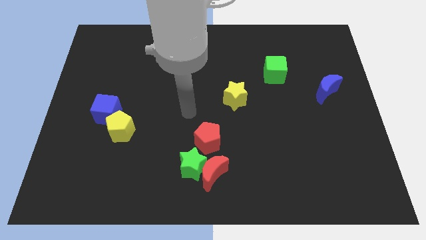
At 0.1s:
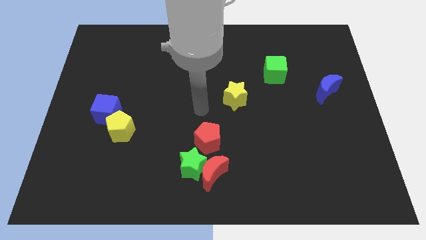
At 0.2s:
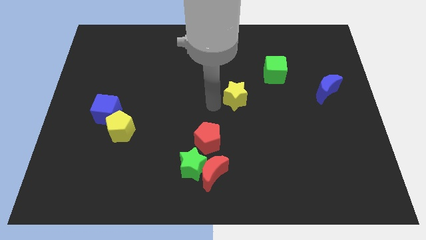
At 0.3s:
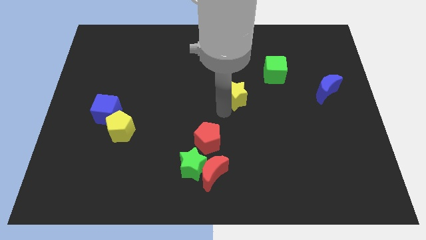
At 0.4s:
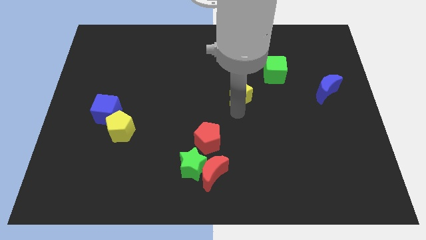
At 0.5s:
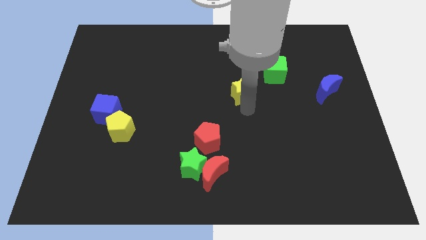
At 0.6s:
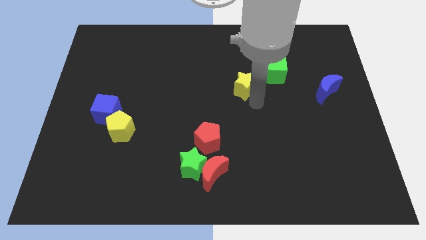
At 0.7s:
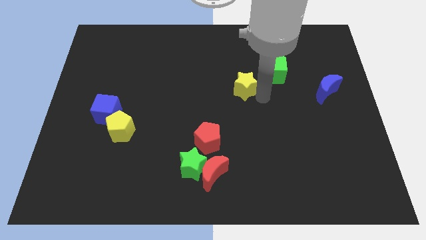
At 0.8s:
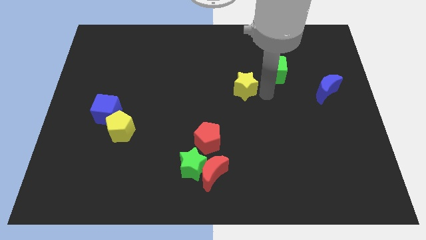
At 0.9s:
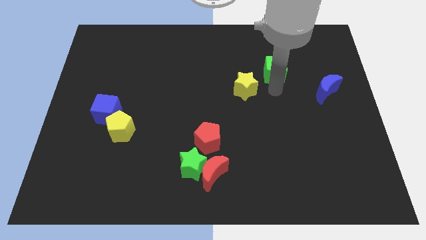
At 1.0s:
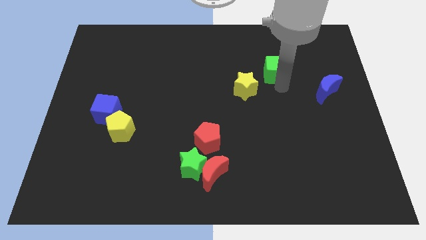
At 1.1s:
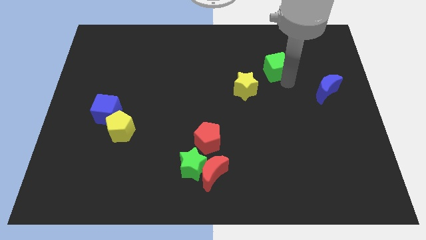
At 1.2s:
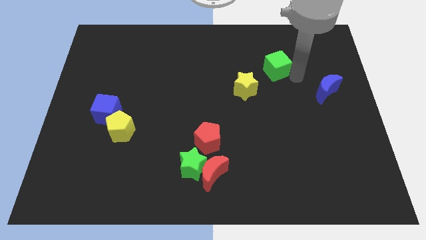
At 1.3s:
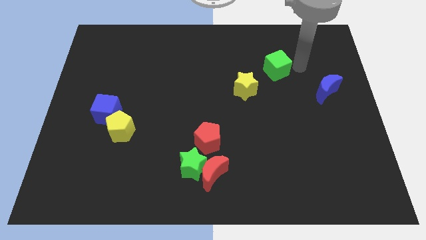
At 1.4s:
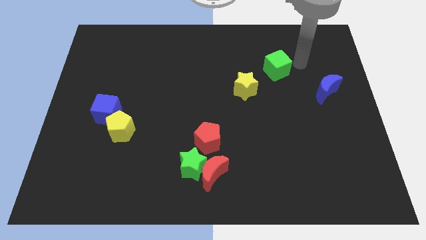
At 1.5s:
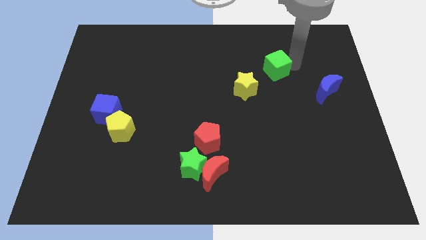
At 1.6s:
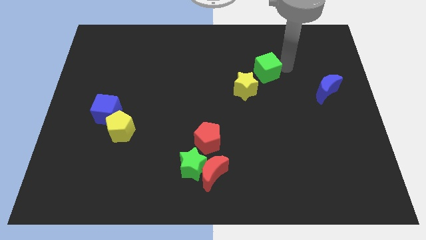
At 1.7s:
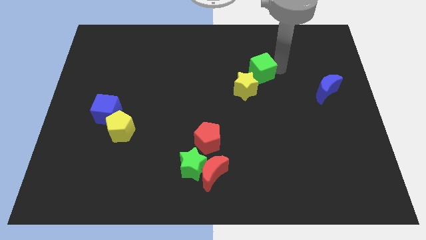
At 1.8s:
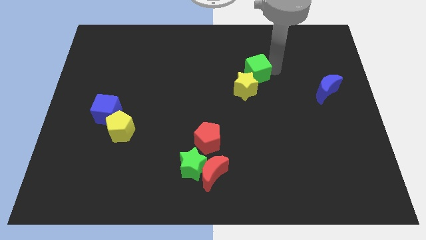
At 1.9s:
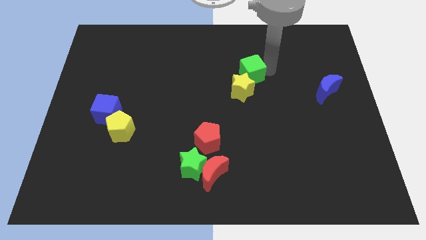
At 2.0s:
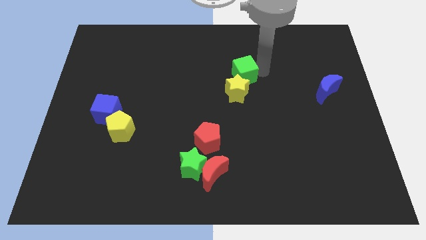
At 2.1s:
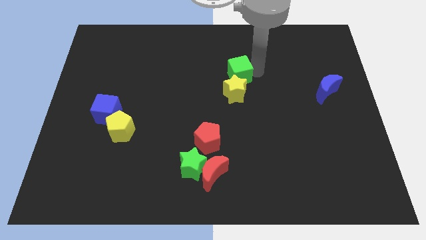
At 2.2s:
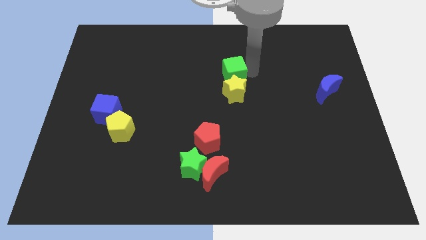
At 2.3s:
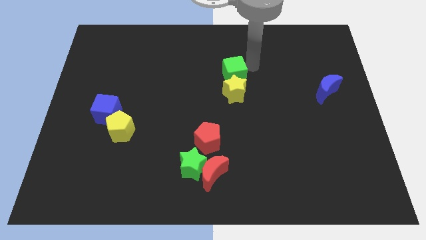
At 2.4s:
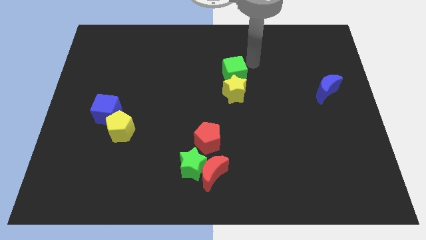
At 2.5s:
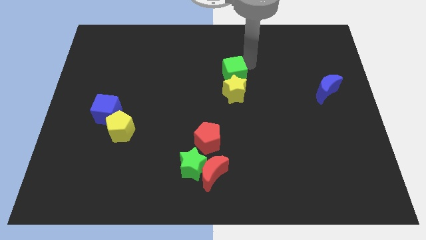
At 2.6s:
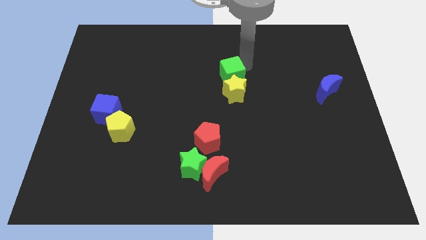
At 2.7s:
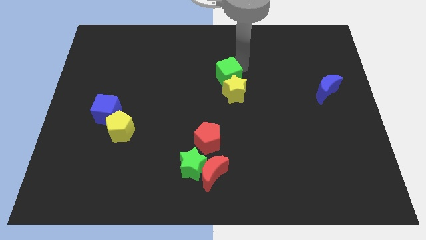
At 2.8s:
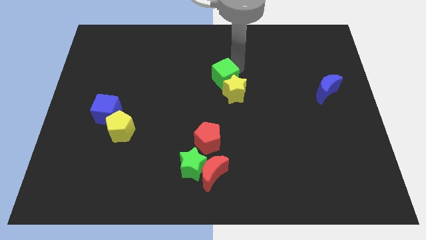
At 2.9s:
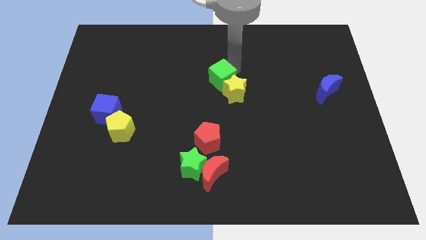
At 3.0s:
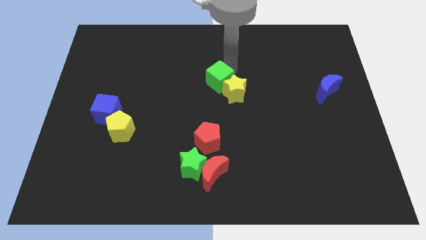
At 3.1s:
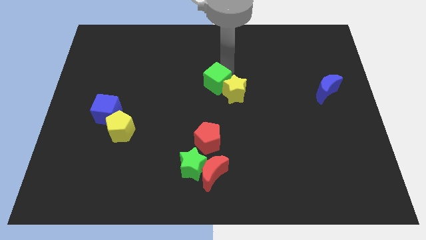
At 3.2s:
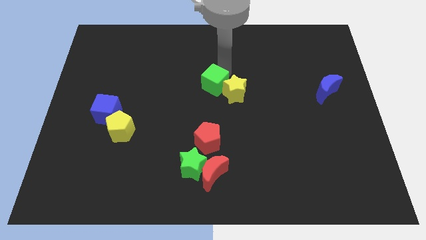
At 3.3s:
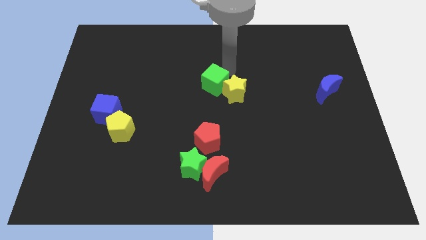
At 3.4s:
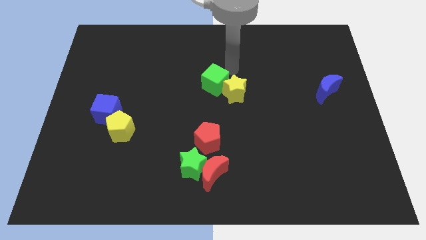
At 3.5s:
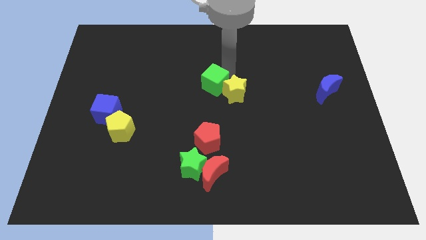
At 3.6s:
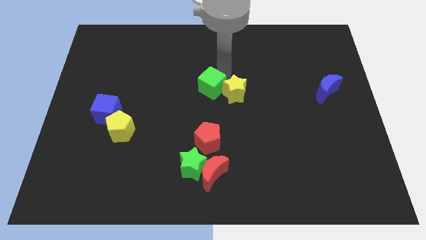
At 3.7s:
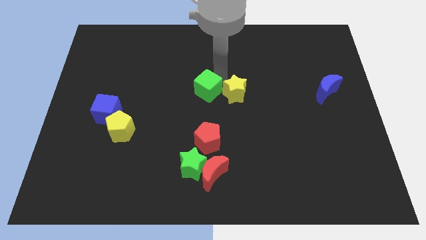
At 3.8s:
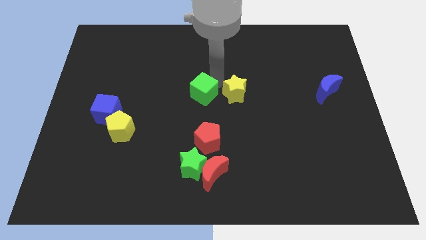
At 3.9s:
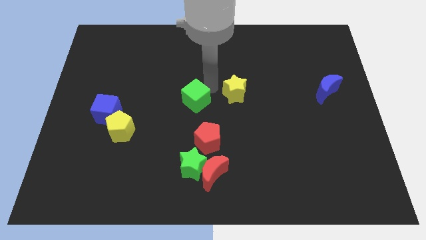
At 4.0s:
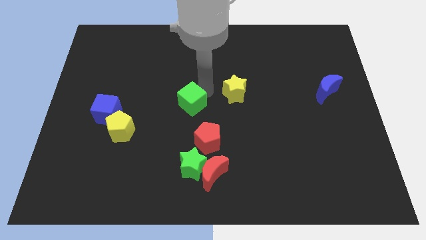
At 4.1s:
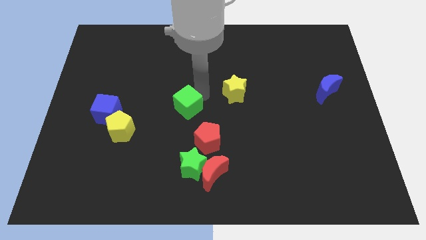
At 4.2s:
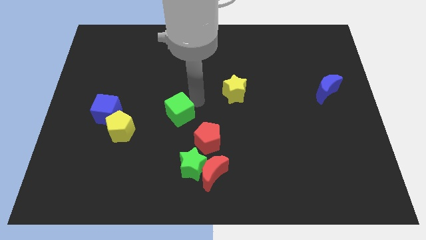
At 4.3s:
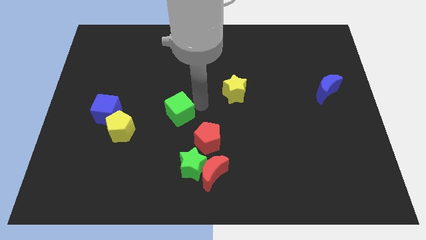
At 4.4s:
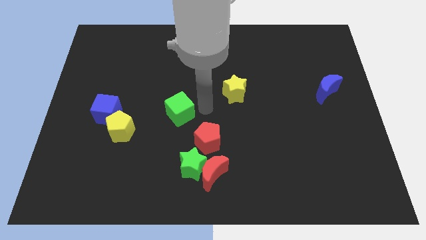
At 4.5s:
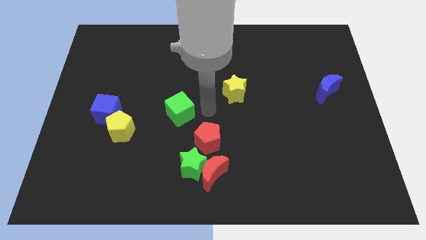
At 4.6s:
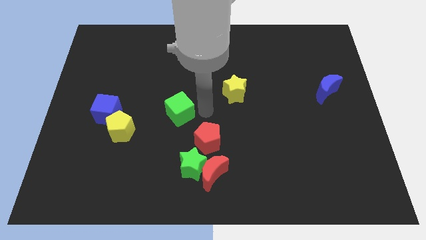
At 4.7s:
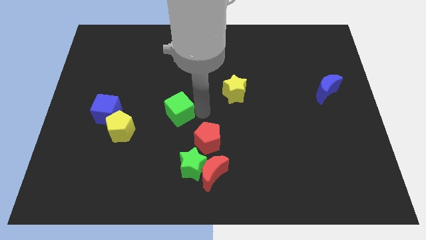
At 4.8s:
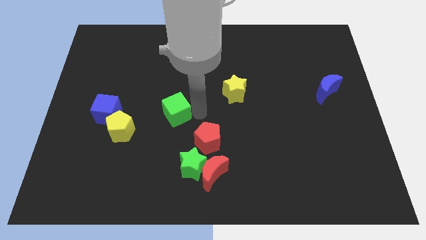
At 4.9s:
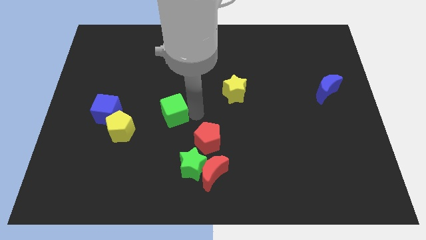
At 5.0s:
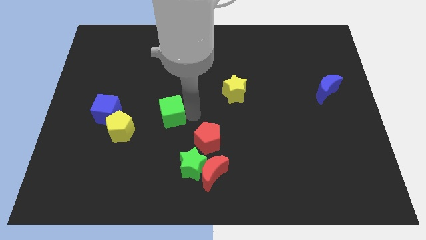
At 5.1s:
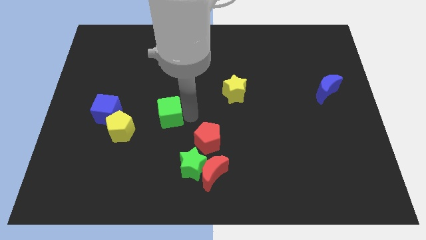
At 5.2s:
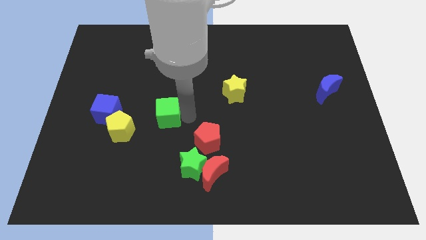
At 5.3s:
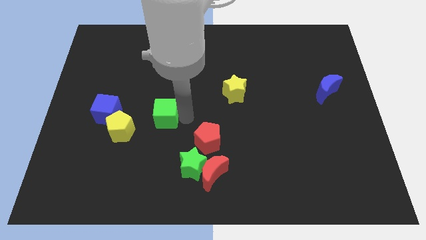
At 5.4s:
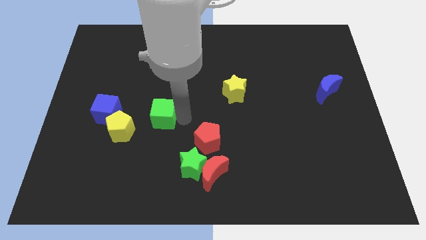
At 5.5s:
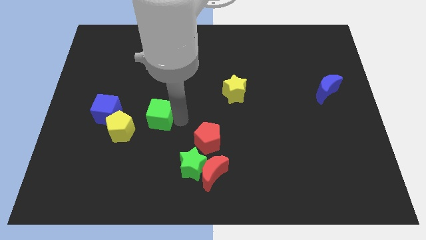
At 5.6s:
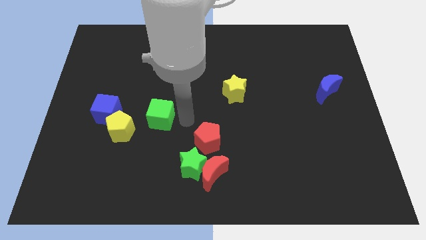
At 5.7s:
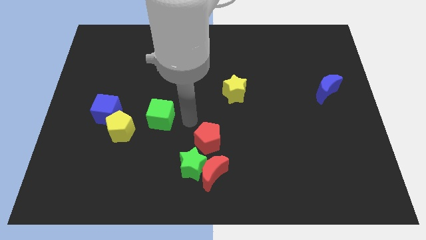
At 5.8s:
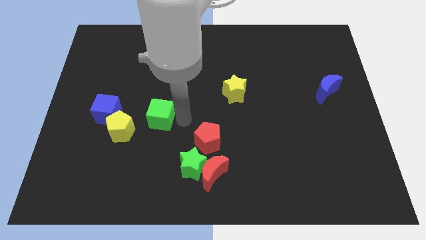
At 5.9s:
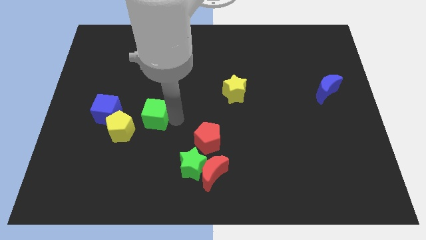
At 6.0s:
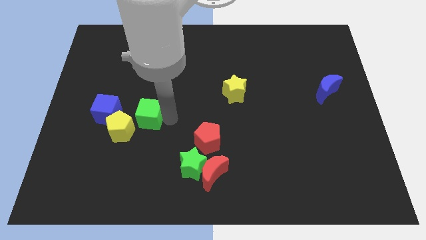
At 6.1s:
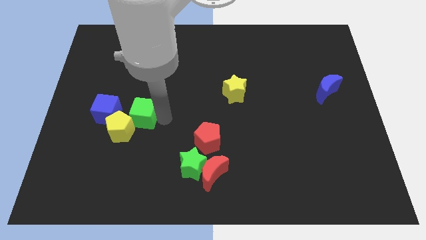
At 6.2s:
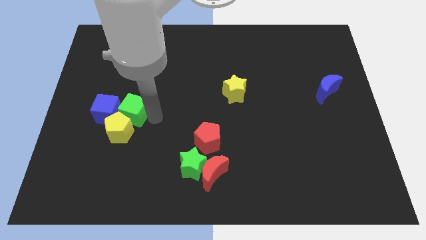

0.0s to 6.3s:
move the green cube to the blue cube

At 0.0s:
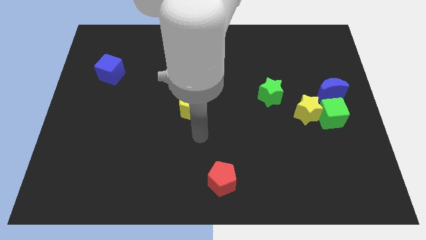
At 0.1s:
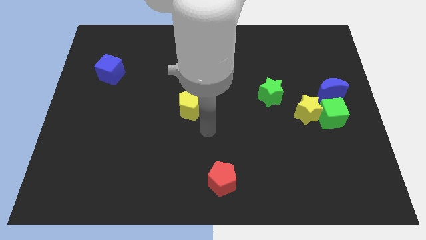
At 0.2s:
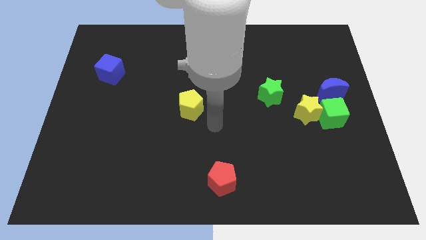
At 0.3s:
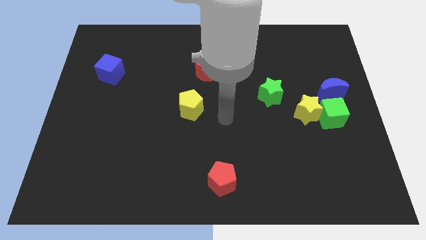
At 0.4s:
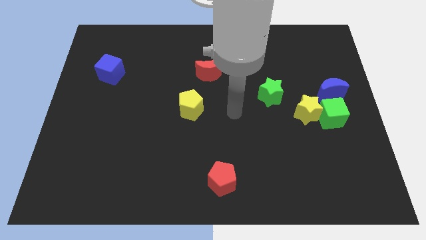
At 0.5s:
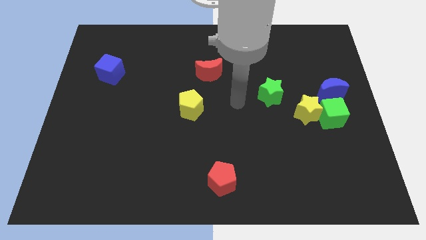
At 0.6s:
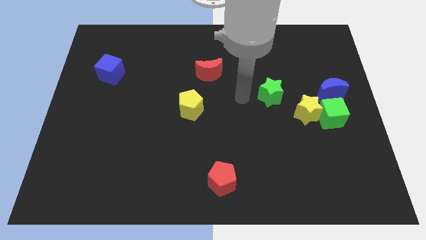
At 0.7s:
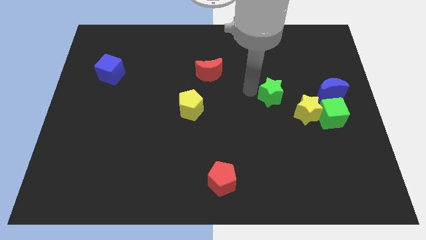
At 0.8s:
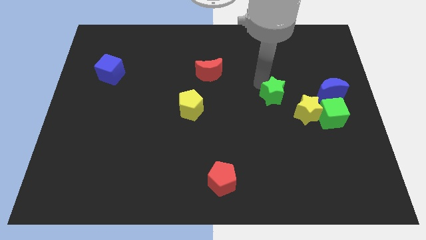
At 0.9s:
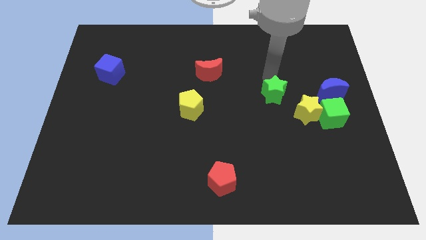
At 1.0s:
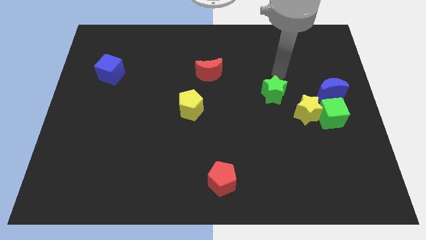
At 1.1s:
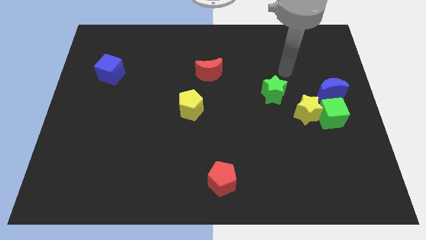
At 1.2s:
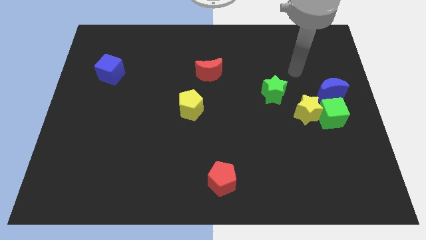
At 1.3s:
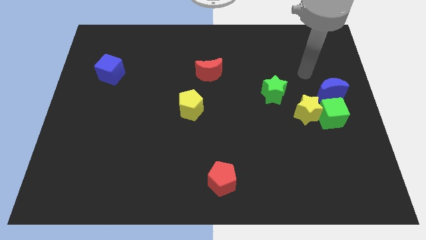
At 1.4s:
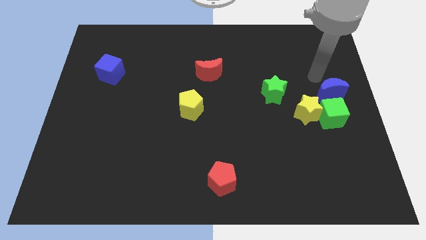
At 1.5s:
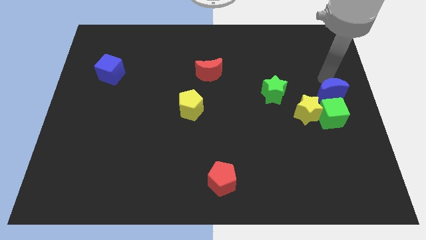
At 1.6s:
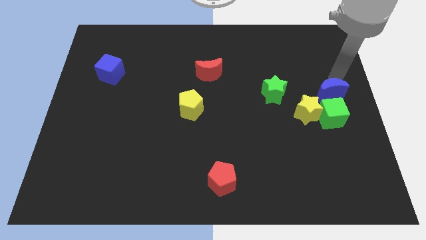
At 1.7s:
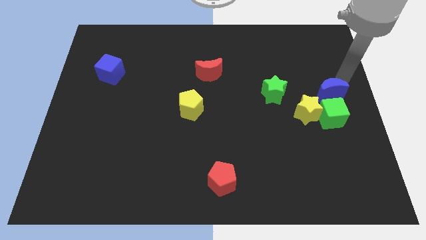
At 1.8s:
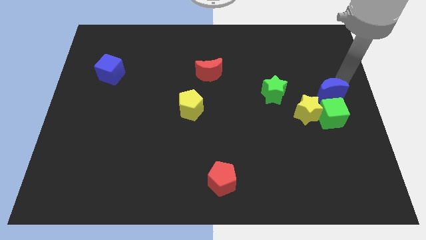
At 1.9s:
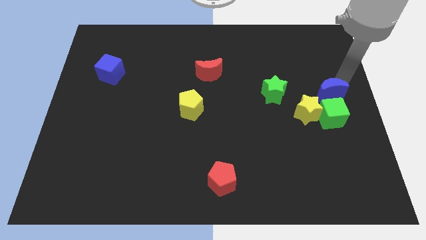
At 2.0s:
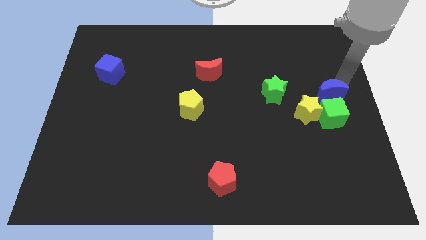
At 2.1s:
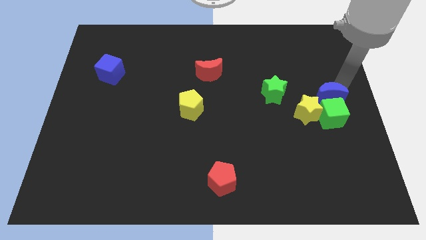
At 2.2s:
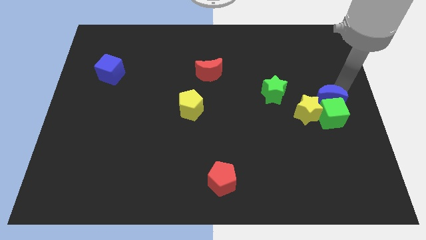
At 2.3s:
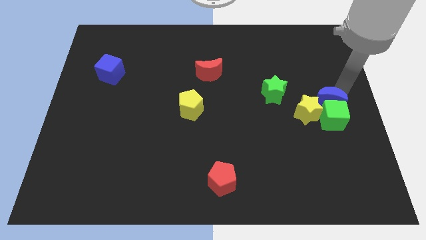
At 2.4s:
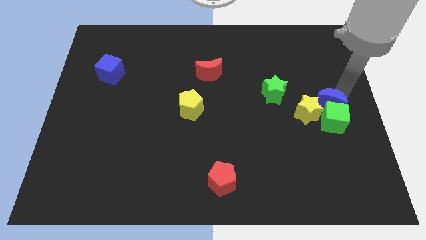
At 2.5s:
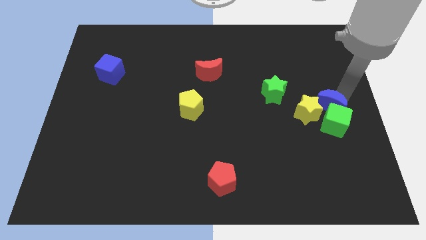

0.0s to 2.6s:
slide the blue moon to the yellow star
